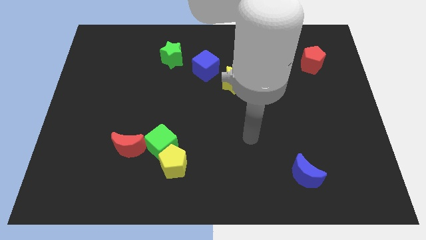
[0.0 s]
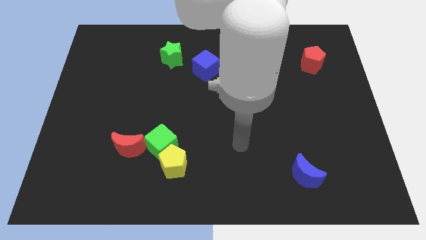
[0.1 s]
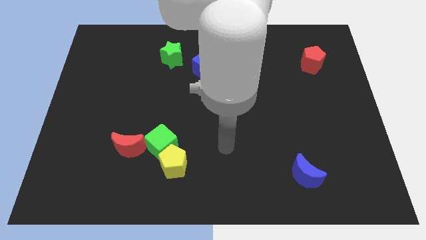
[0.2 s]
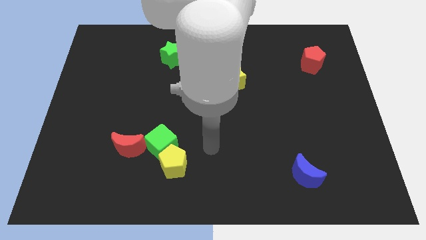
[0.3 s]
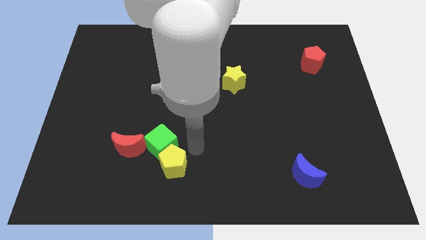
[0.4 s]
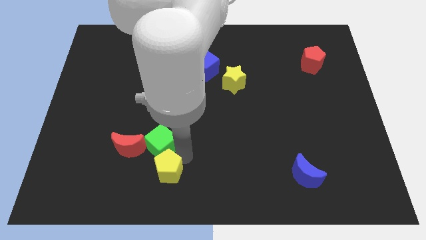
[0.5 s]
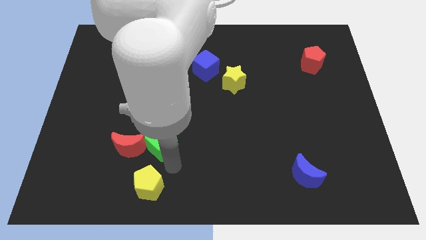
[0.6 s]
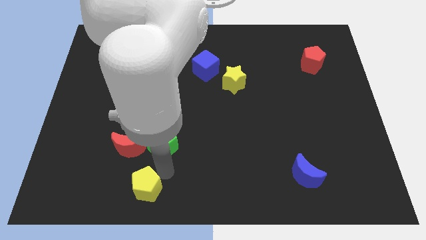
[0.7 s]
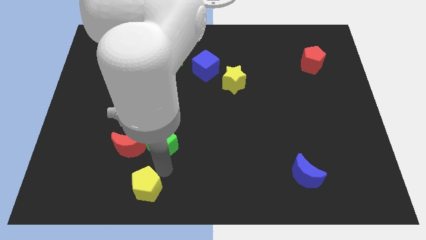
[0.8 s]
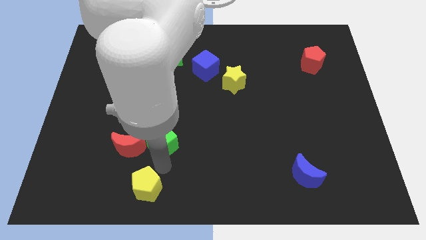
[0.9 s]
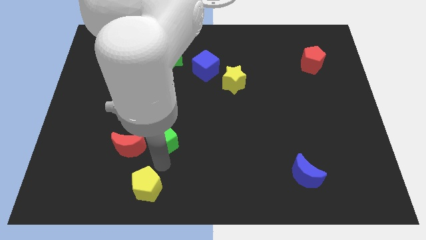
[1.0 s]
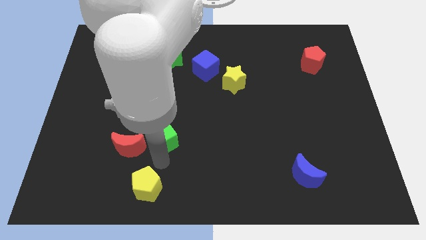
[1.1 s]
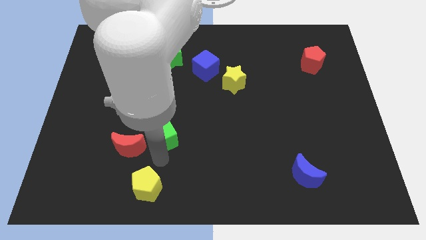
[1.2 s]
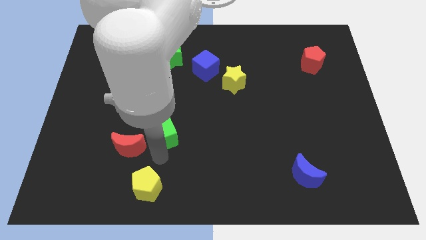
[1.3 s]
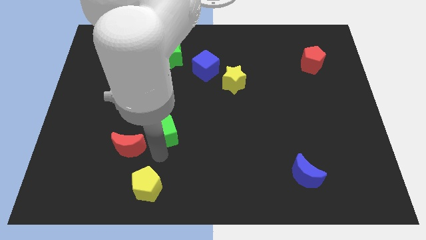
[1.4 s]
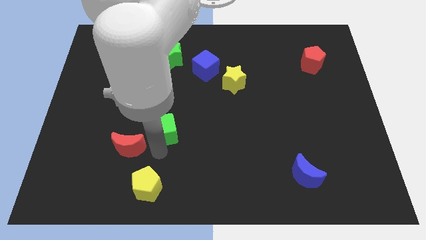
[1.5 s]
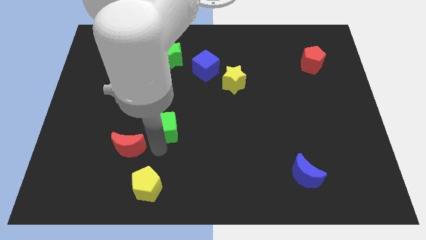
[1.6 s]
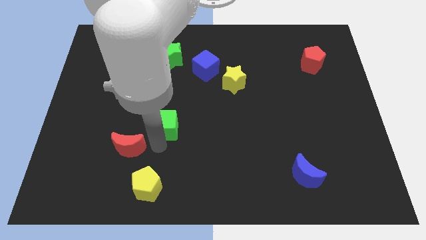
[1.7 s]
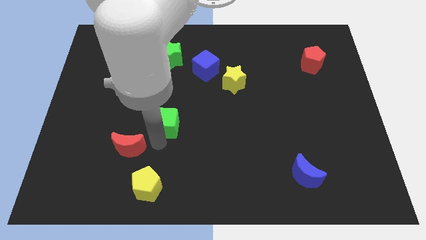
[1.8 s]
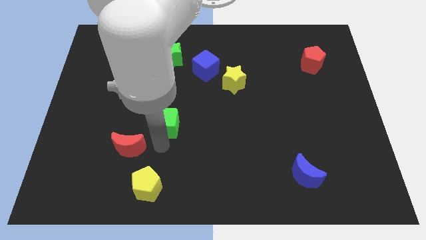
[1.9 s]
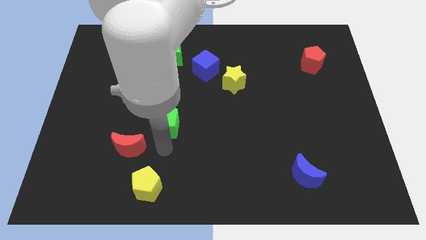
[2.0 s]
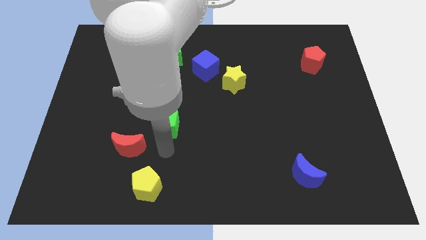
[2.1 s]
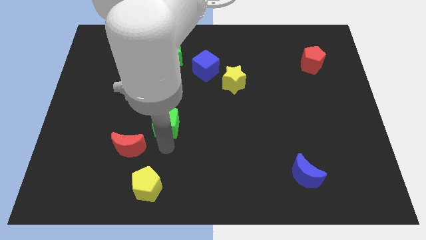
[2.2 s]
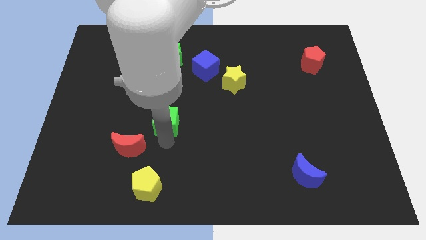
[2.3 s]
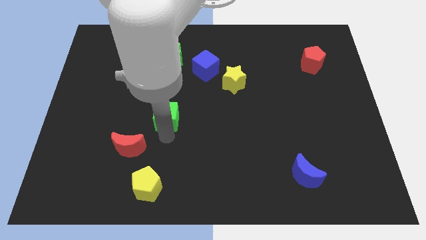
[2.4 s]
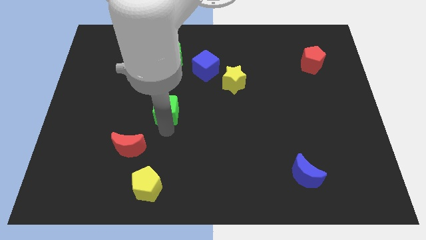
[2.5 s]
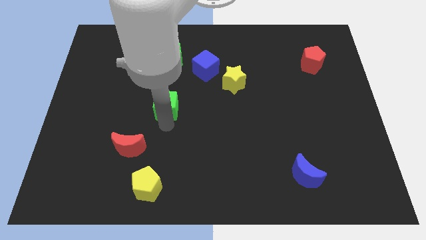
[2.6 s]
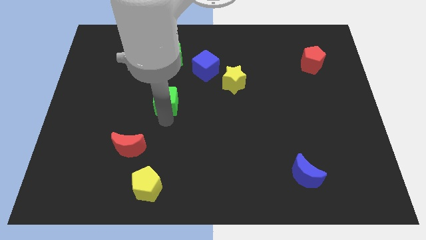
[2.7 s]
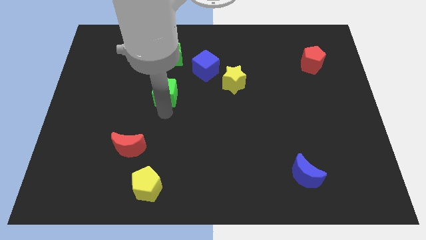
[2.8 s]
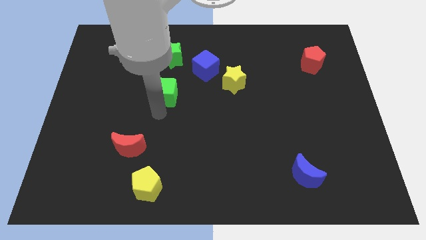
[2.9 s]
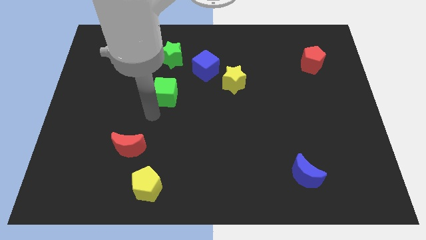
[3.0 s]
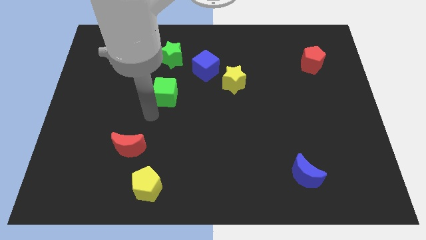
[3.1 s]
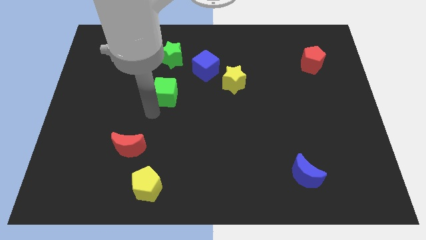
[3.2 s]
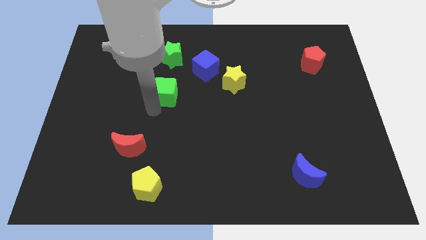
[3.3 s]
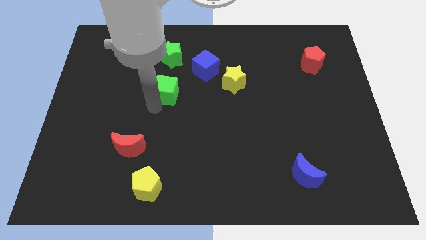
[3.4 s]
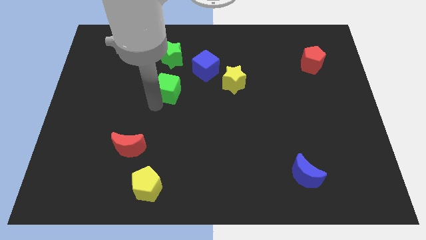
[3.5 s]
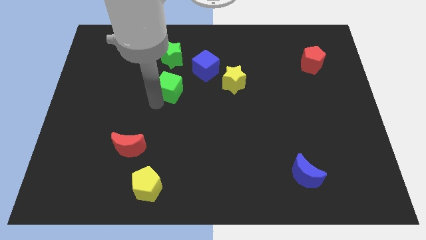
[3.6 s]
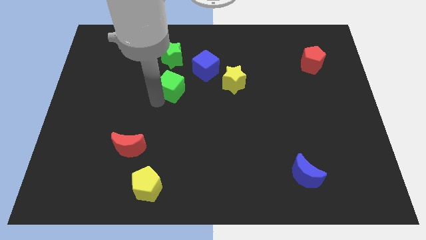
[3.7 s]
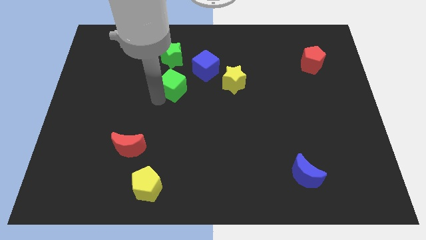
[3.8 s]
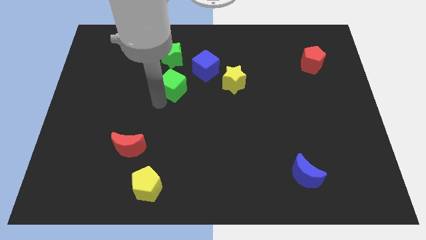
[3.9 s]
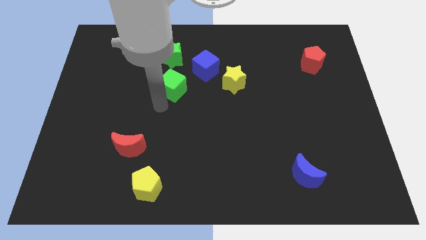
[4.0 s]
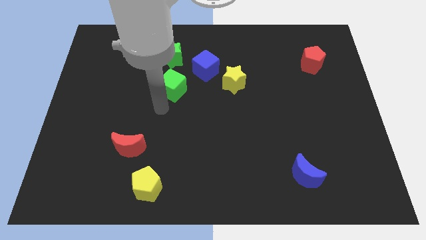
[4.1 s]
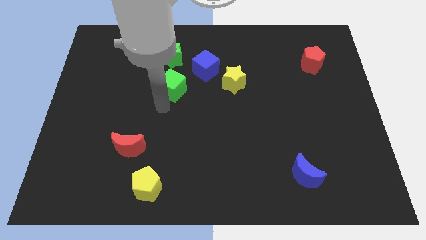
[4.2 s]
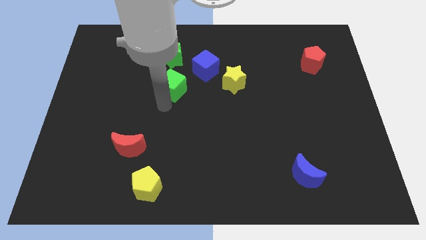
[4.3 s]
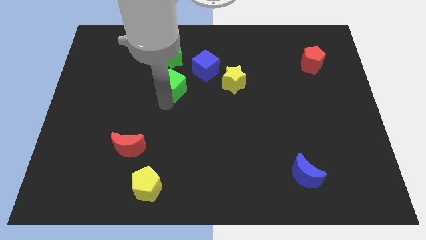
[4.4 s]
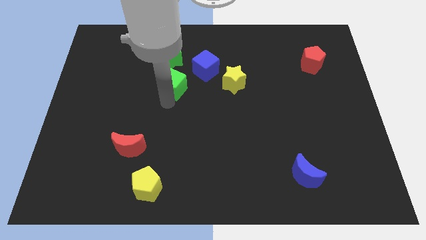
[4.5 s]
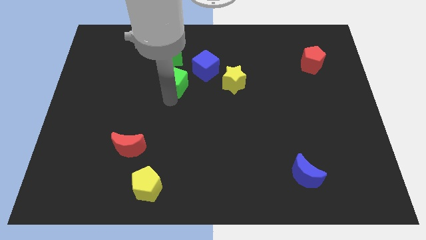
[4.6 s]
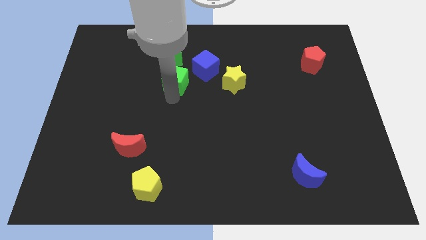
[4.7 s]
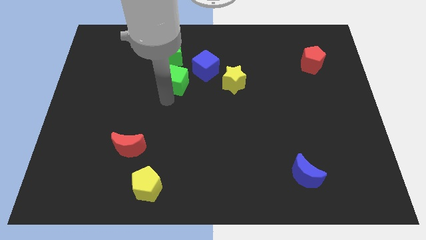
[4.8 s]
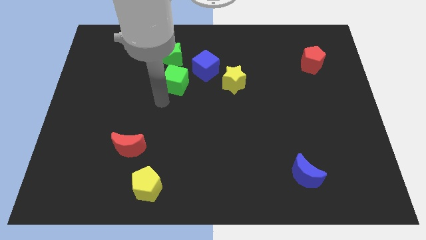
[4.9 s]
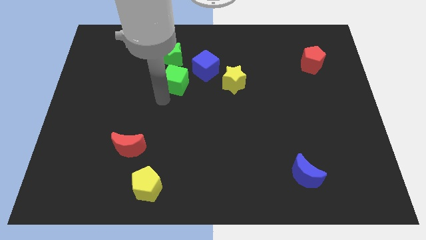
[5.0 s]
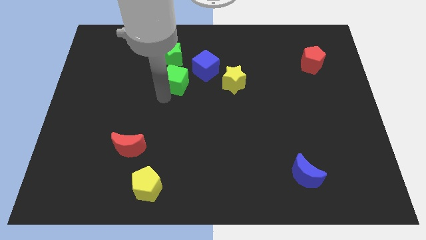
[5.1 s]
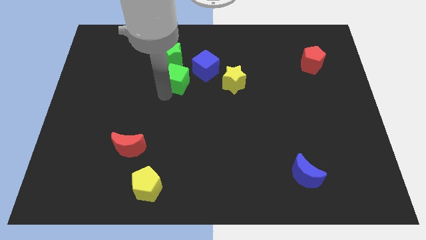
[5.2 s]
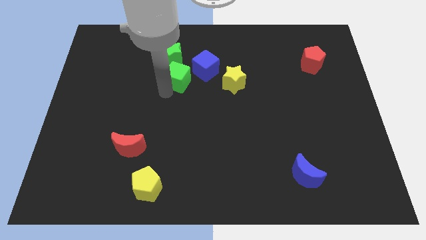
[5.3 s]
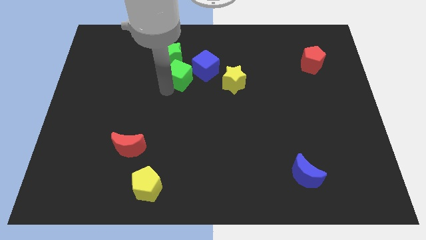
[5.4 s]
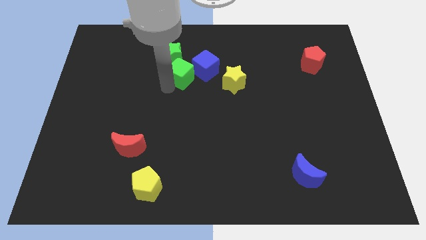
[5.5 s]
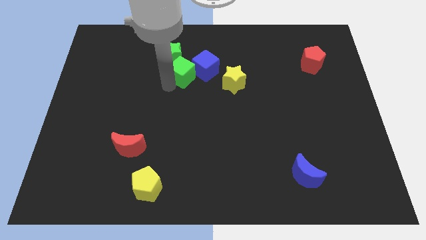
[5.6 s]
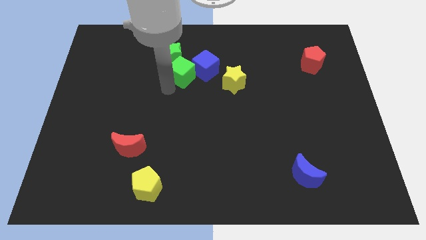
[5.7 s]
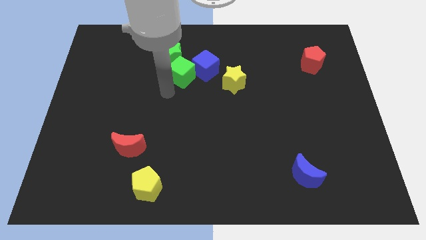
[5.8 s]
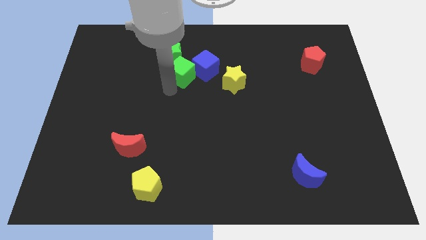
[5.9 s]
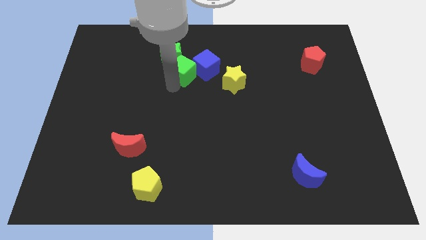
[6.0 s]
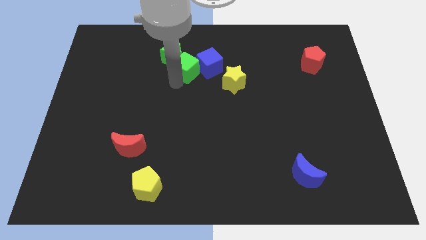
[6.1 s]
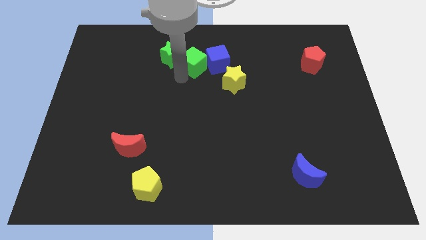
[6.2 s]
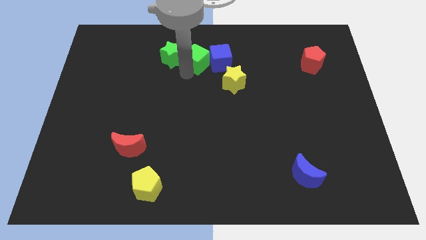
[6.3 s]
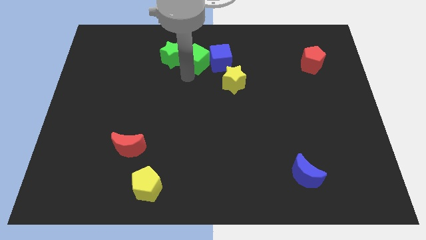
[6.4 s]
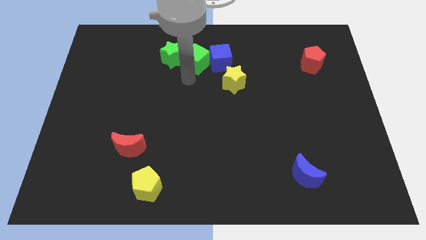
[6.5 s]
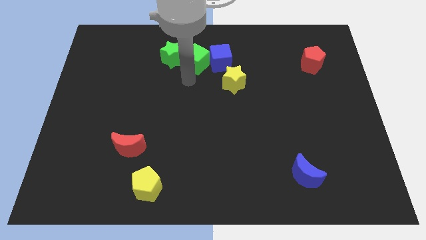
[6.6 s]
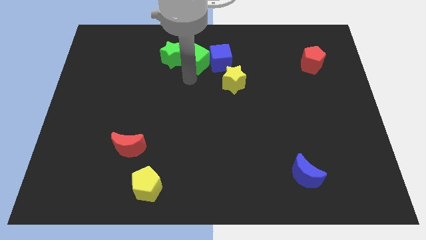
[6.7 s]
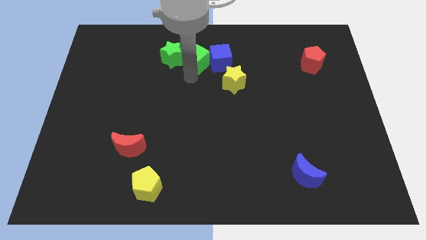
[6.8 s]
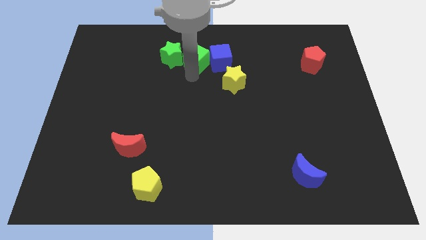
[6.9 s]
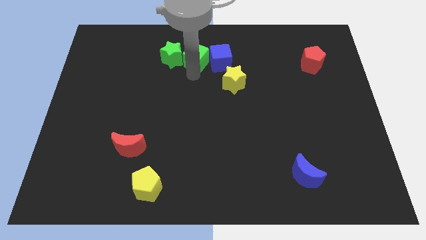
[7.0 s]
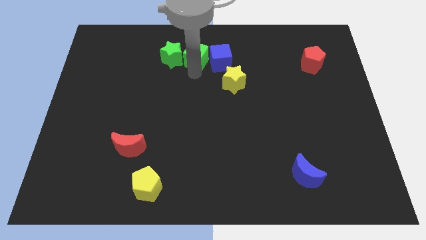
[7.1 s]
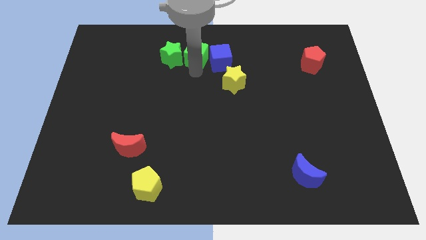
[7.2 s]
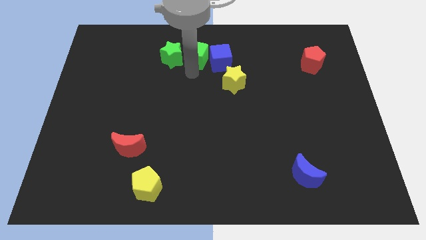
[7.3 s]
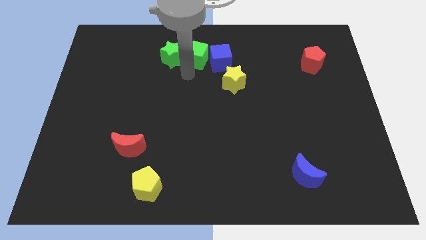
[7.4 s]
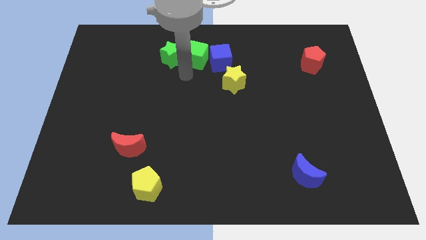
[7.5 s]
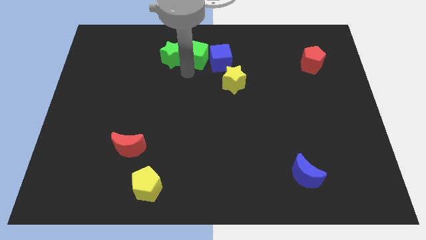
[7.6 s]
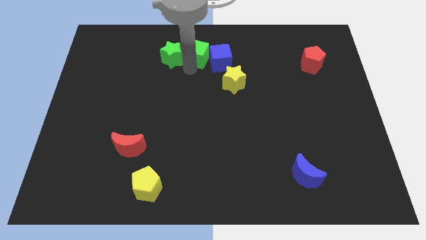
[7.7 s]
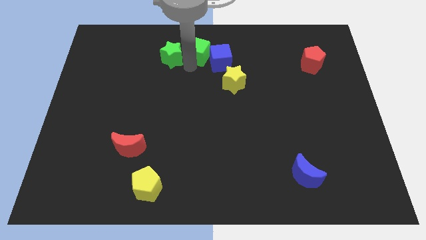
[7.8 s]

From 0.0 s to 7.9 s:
push the green cube to the top
